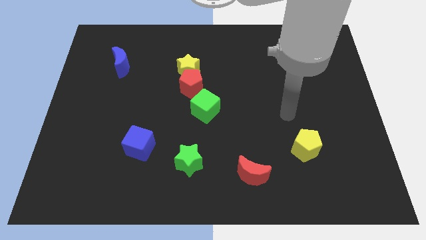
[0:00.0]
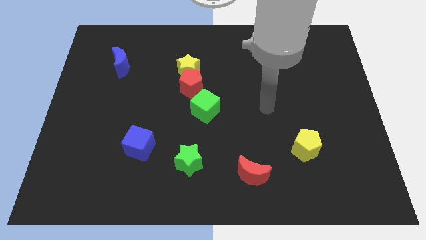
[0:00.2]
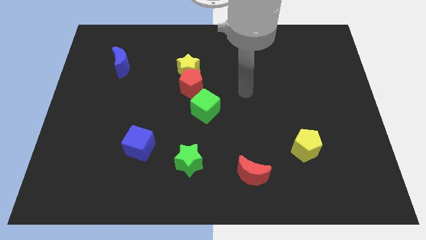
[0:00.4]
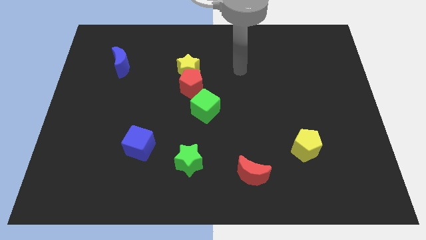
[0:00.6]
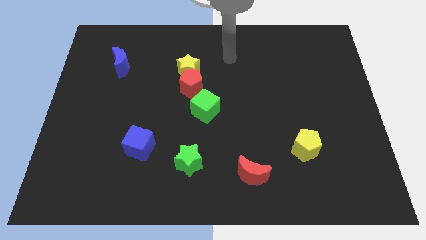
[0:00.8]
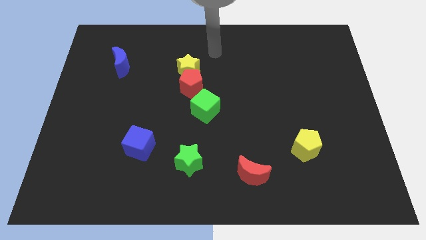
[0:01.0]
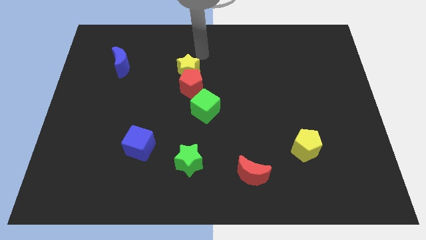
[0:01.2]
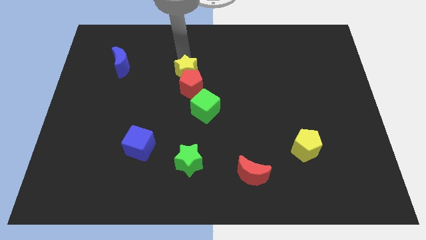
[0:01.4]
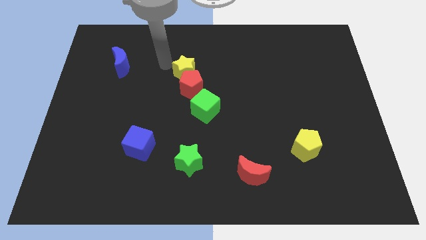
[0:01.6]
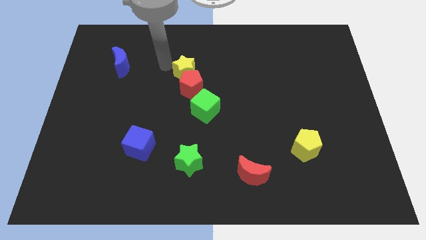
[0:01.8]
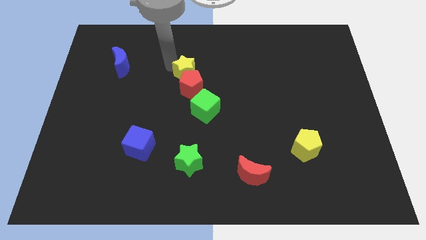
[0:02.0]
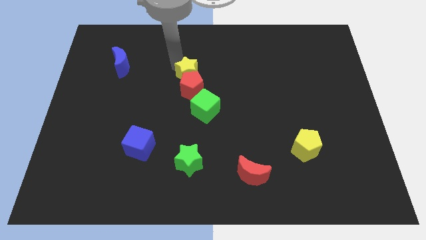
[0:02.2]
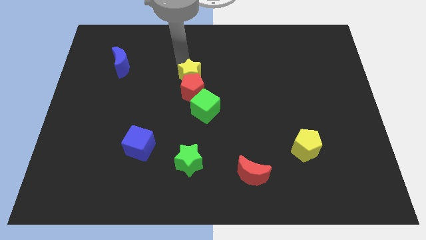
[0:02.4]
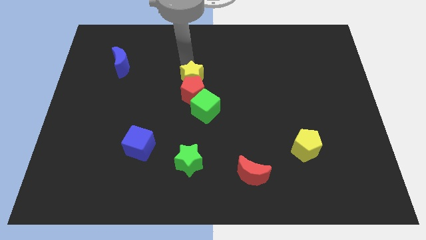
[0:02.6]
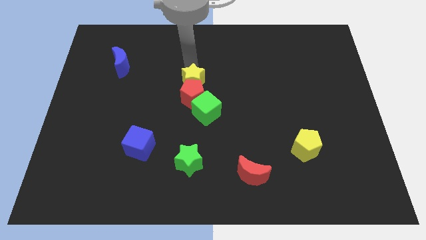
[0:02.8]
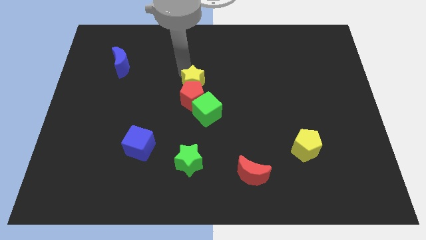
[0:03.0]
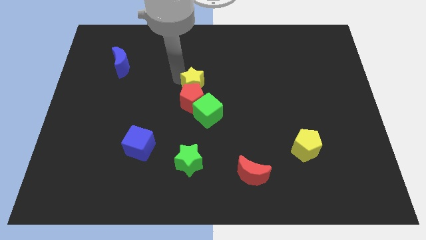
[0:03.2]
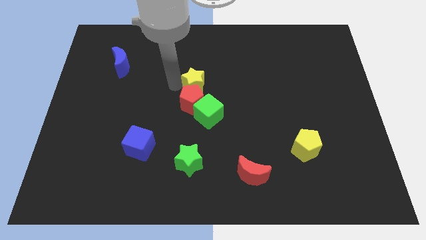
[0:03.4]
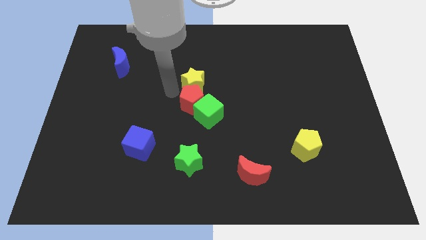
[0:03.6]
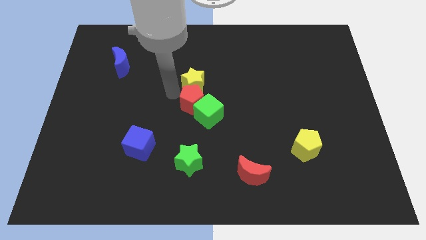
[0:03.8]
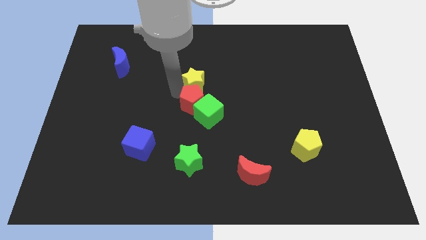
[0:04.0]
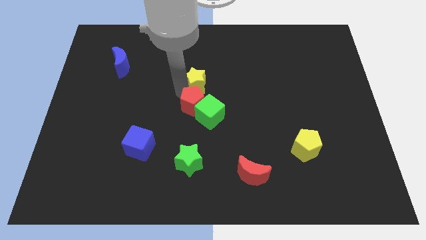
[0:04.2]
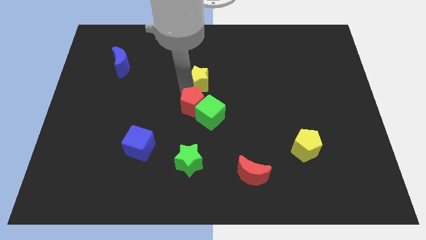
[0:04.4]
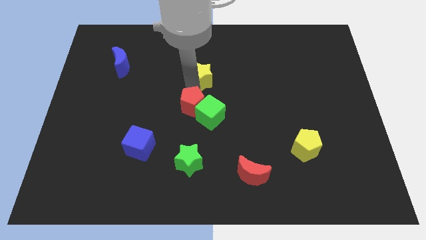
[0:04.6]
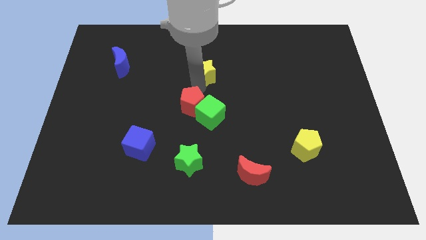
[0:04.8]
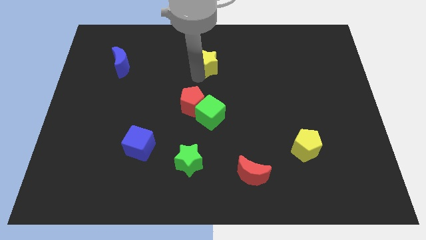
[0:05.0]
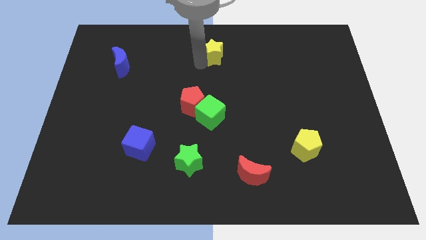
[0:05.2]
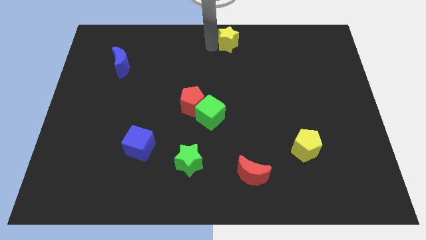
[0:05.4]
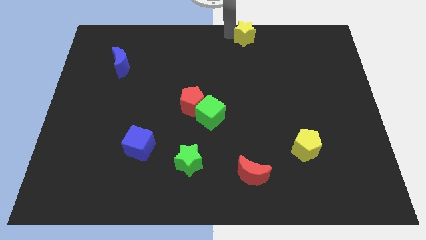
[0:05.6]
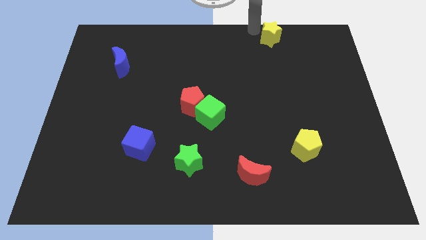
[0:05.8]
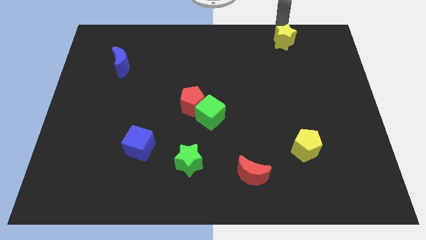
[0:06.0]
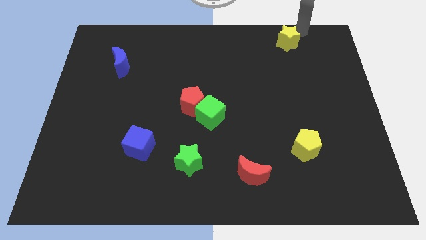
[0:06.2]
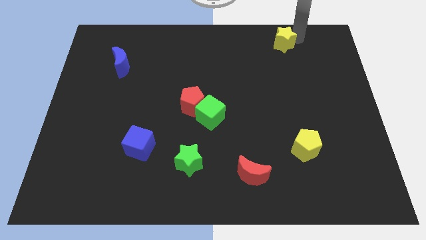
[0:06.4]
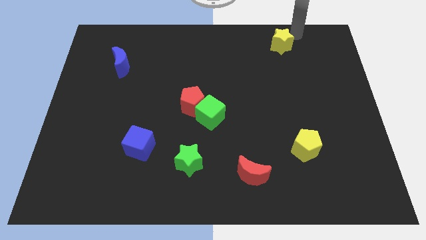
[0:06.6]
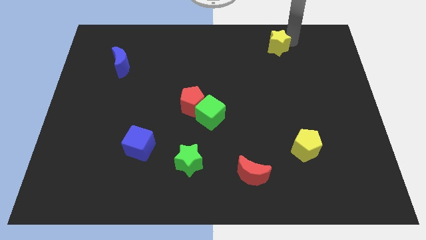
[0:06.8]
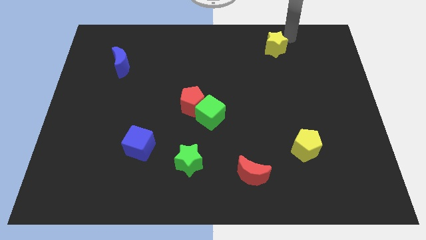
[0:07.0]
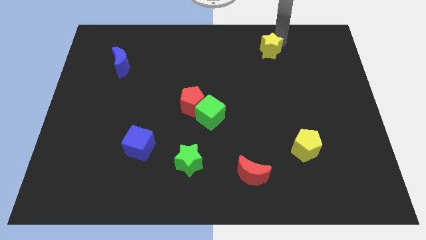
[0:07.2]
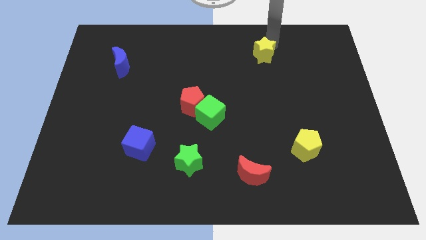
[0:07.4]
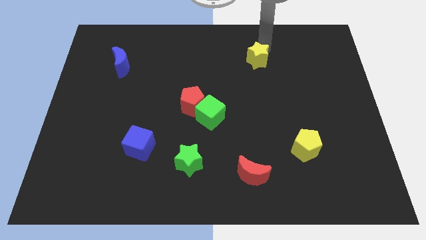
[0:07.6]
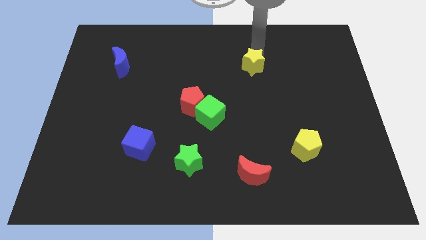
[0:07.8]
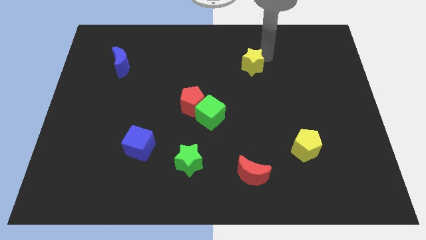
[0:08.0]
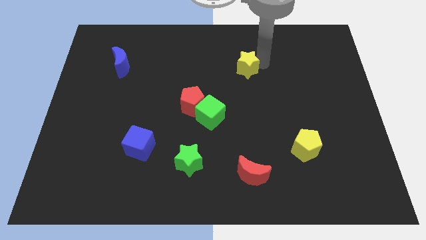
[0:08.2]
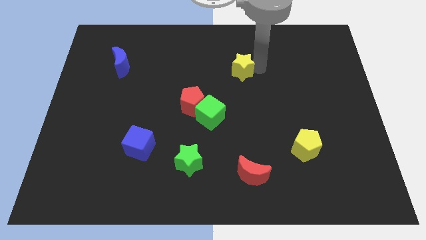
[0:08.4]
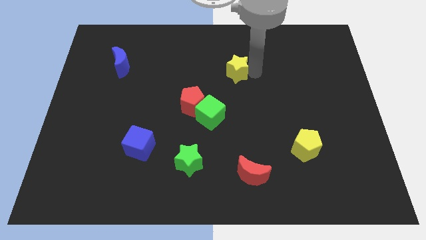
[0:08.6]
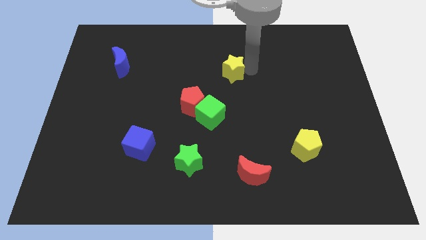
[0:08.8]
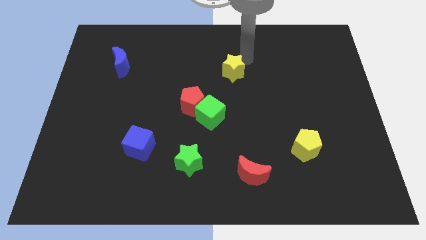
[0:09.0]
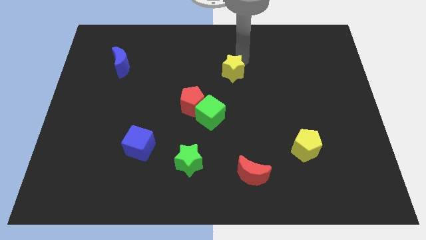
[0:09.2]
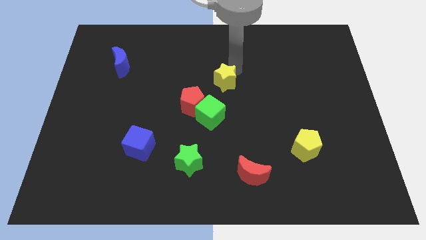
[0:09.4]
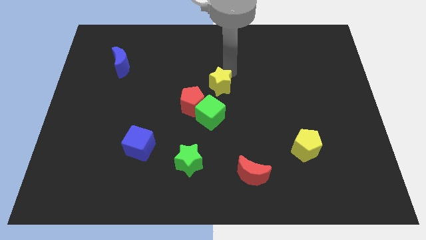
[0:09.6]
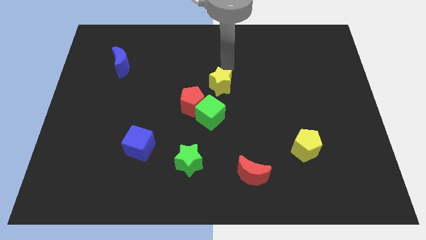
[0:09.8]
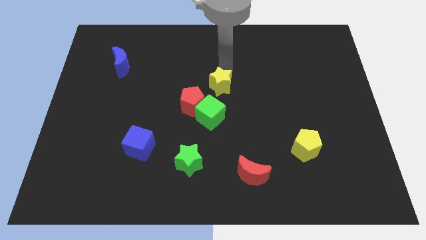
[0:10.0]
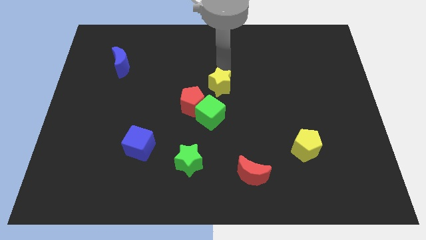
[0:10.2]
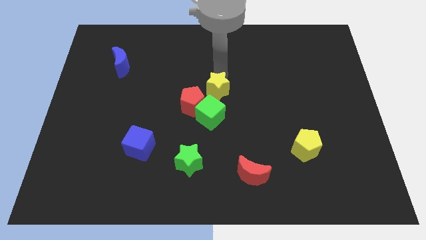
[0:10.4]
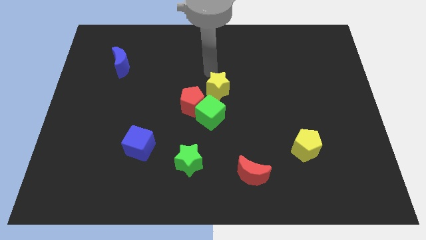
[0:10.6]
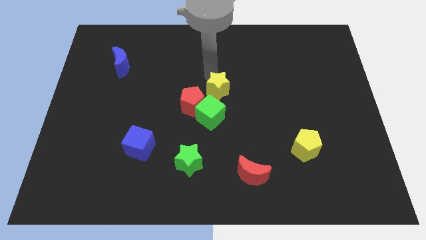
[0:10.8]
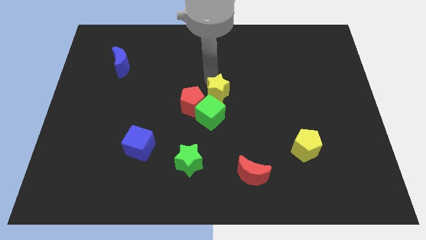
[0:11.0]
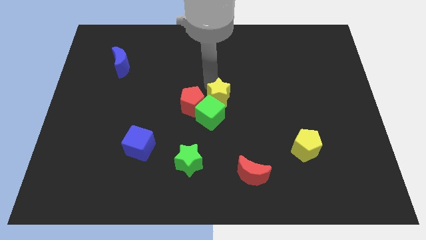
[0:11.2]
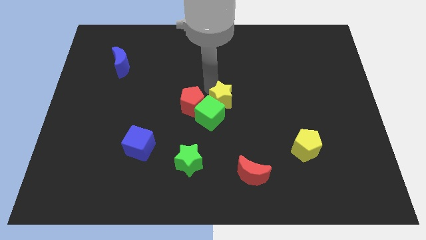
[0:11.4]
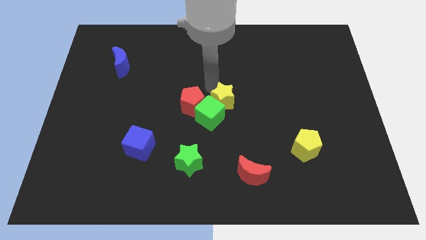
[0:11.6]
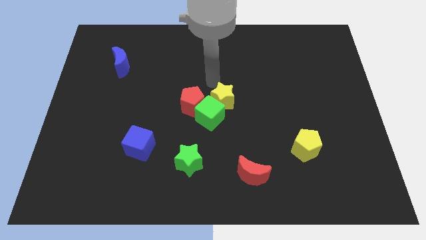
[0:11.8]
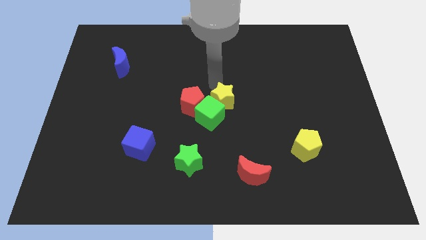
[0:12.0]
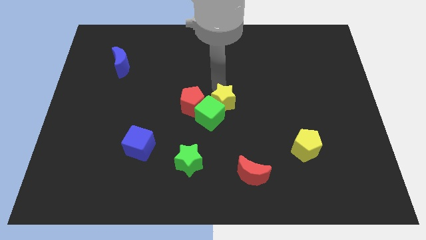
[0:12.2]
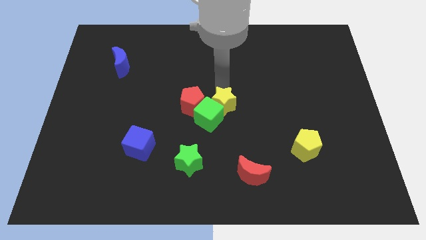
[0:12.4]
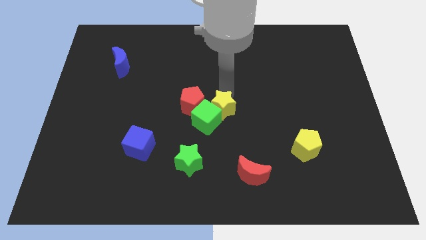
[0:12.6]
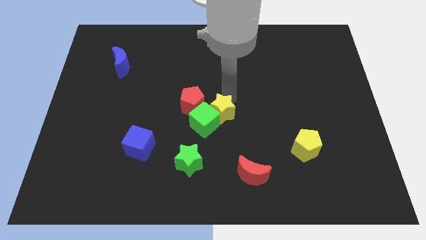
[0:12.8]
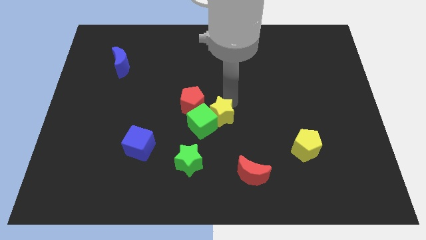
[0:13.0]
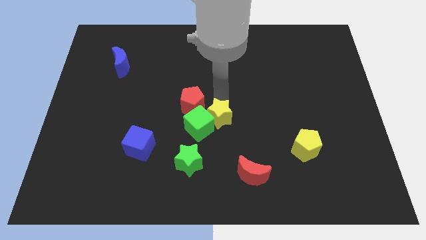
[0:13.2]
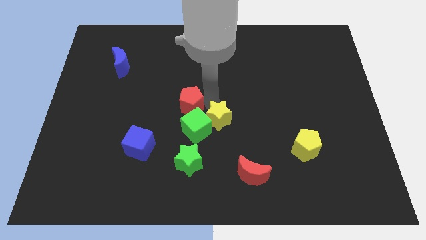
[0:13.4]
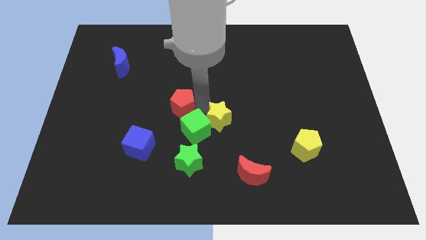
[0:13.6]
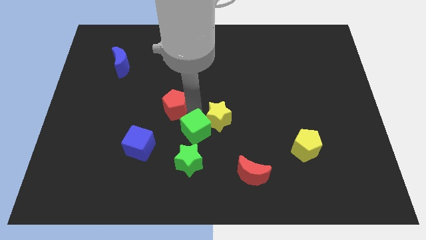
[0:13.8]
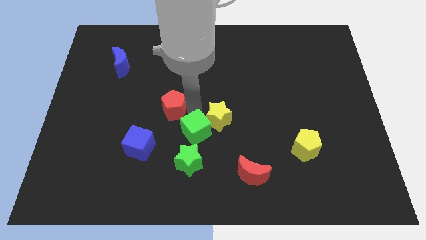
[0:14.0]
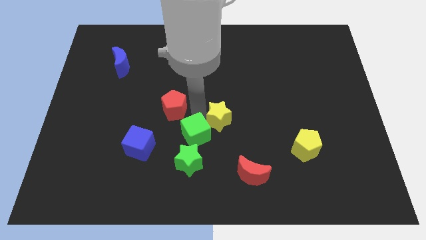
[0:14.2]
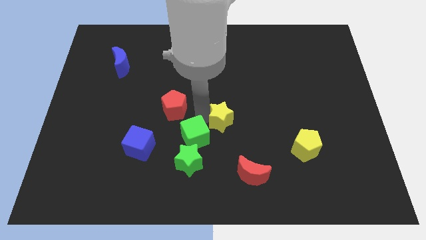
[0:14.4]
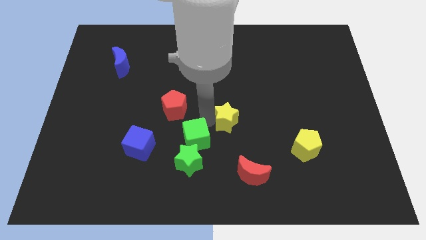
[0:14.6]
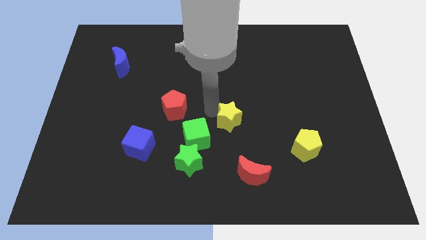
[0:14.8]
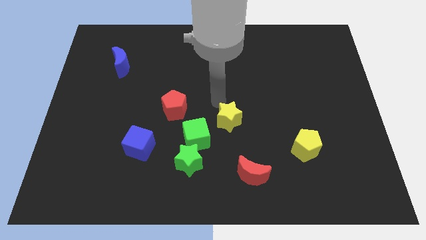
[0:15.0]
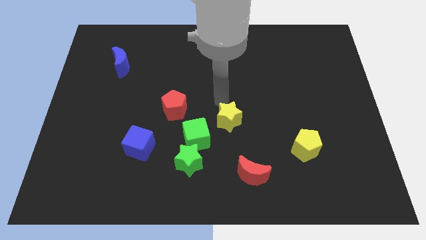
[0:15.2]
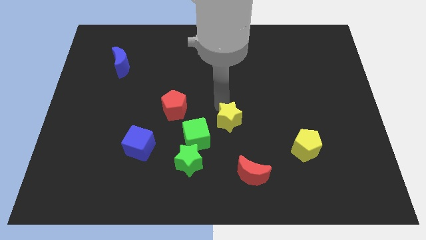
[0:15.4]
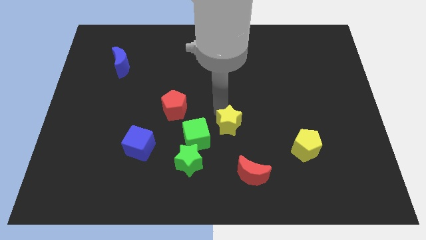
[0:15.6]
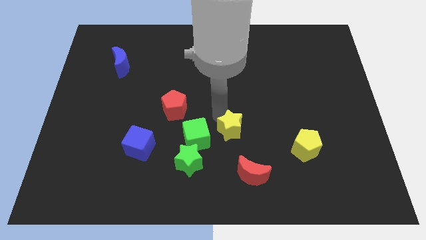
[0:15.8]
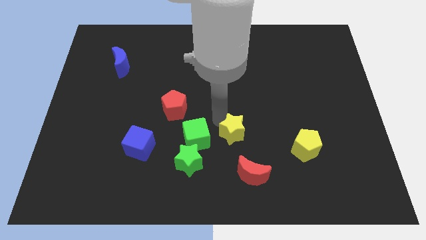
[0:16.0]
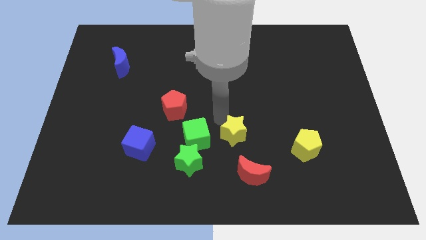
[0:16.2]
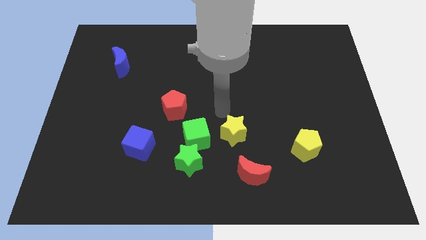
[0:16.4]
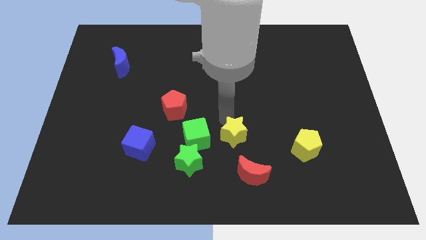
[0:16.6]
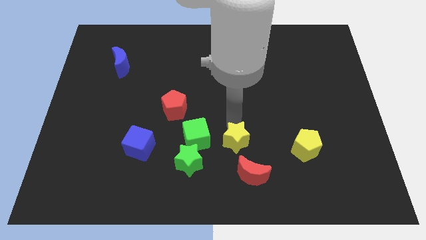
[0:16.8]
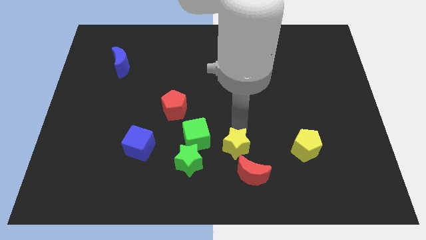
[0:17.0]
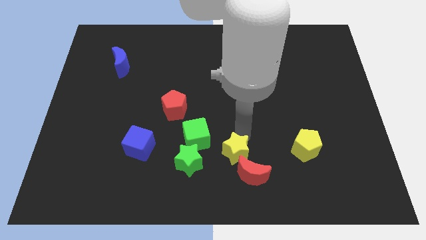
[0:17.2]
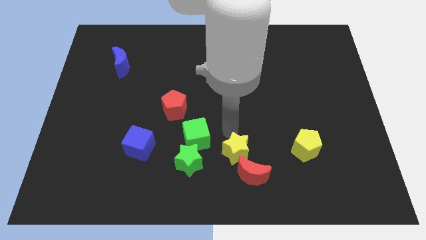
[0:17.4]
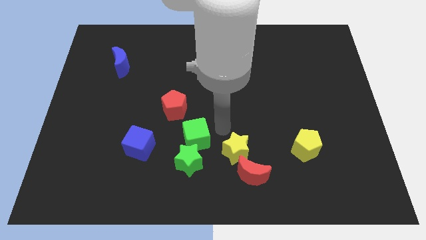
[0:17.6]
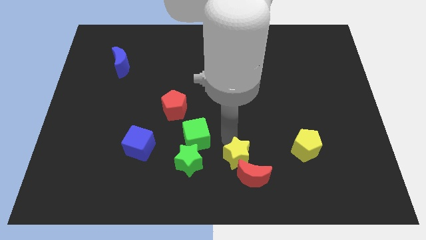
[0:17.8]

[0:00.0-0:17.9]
slide the yellow star to the red moon
